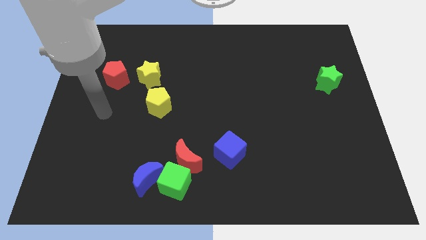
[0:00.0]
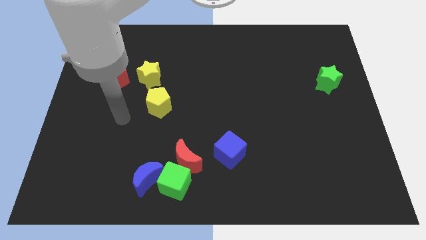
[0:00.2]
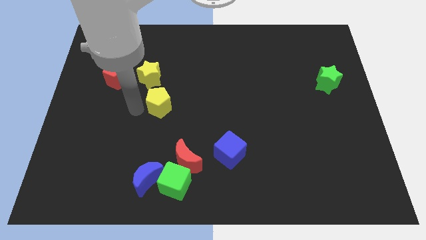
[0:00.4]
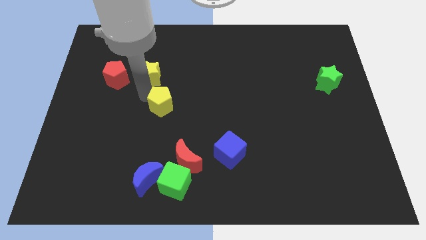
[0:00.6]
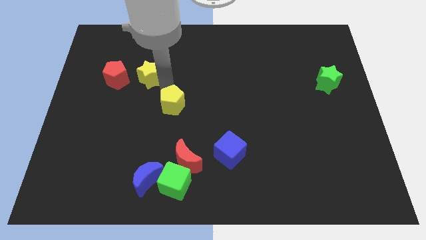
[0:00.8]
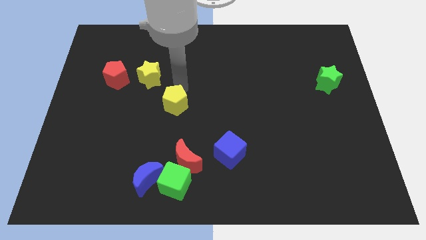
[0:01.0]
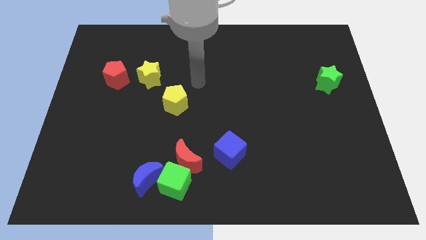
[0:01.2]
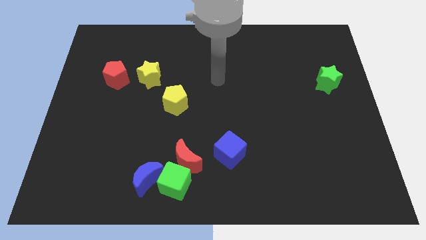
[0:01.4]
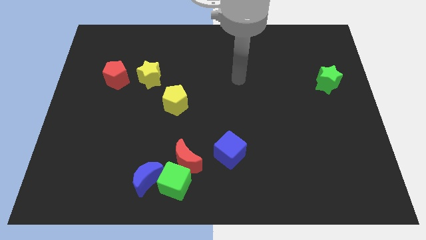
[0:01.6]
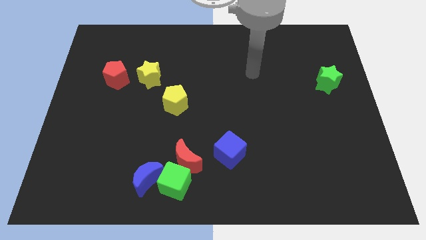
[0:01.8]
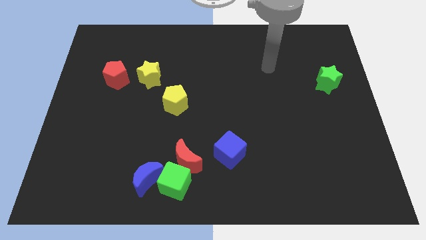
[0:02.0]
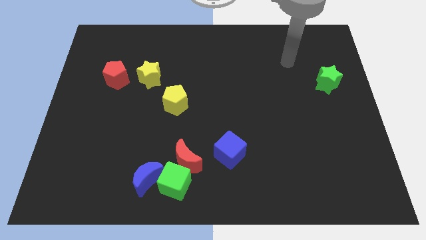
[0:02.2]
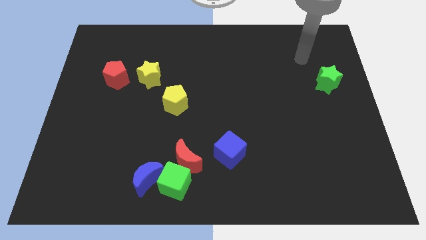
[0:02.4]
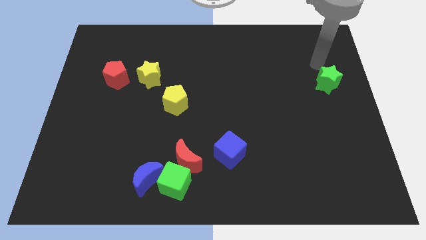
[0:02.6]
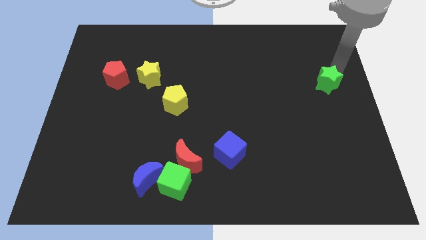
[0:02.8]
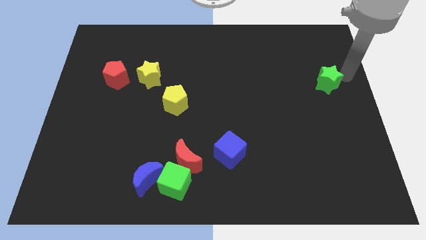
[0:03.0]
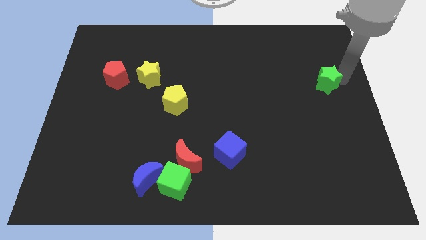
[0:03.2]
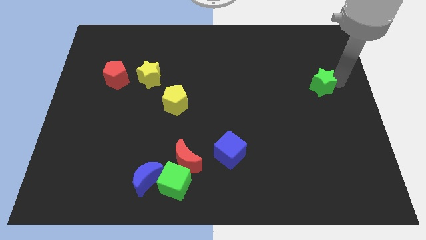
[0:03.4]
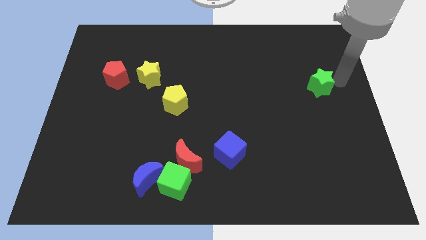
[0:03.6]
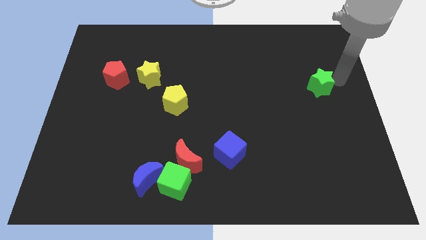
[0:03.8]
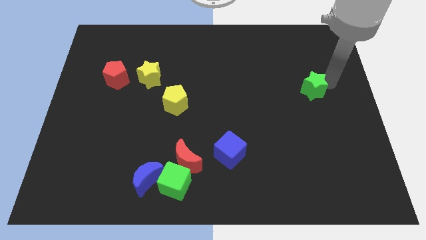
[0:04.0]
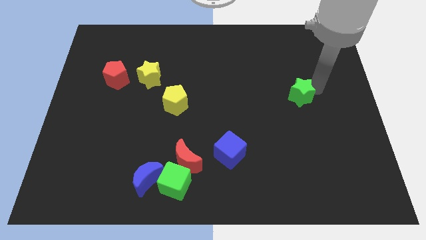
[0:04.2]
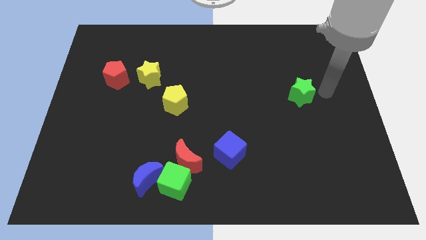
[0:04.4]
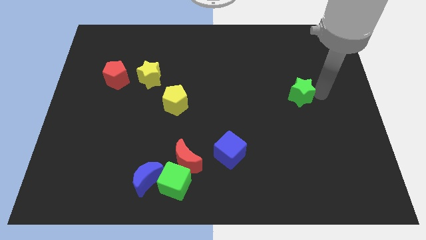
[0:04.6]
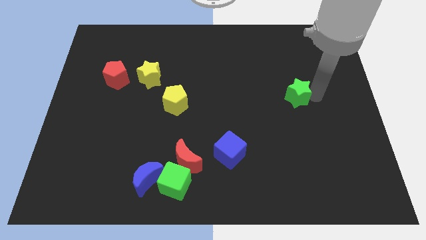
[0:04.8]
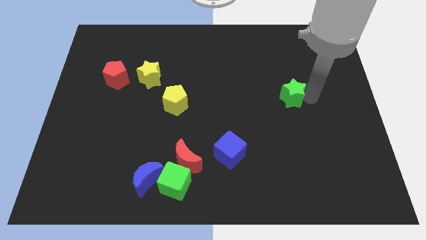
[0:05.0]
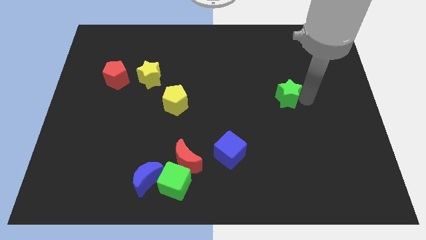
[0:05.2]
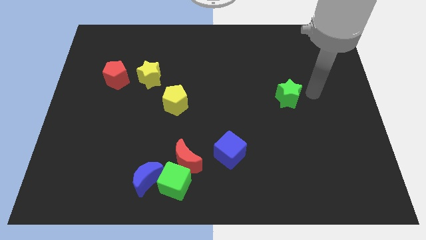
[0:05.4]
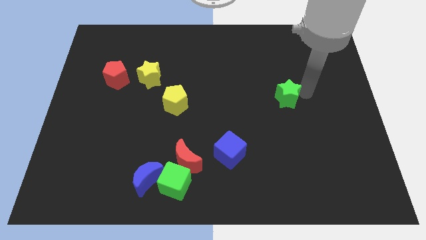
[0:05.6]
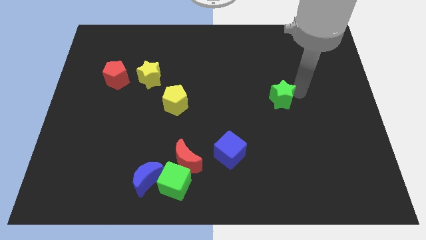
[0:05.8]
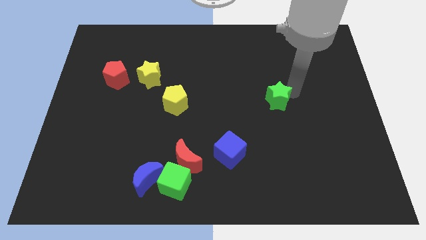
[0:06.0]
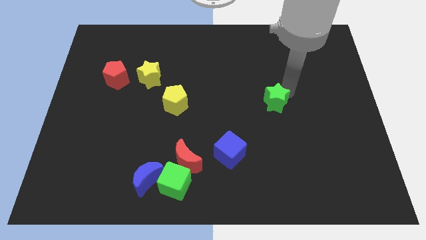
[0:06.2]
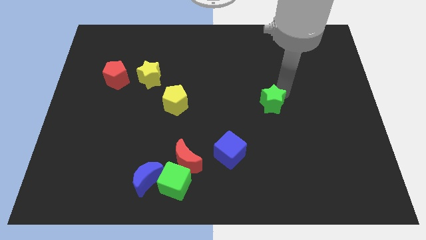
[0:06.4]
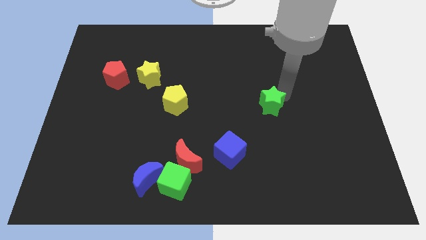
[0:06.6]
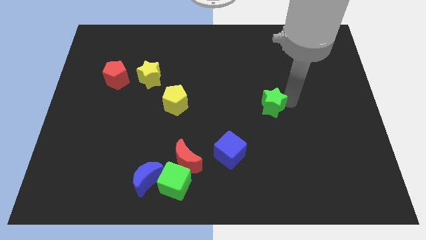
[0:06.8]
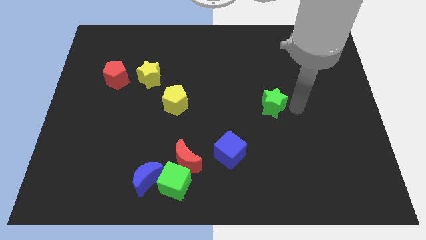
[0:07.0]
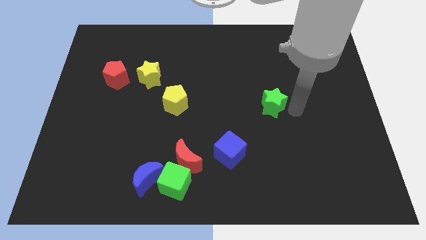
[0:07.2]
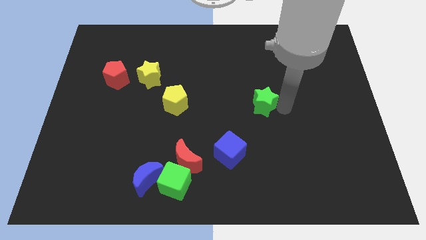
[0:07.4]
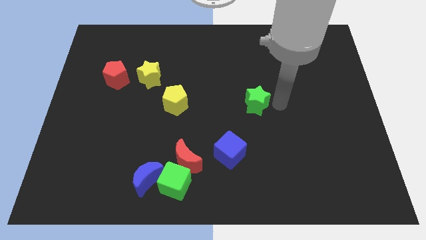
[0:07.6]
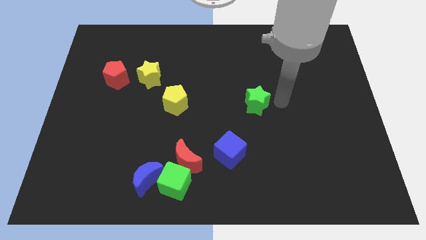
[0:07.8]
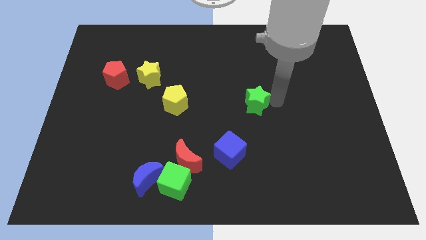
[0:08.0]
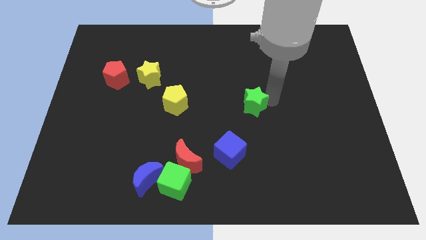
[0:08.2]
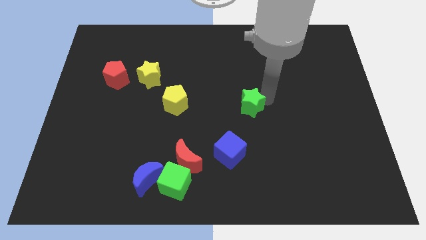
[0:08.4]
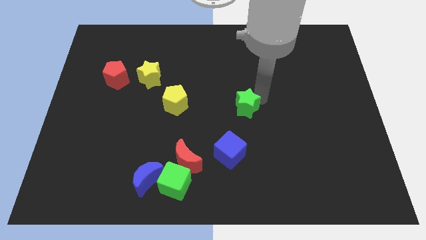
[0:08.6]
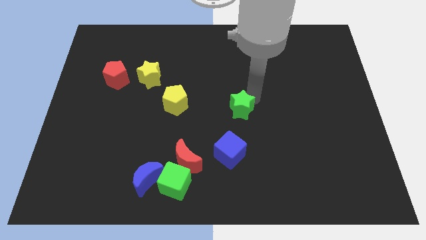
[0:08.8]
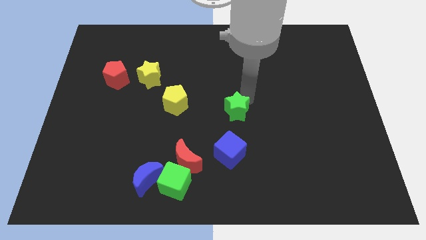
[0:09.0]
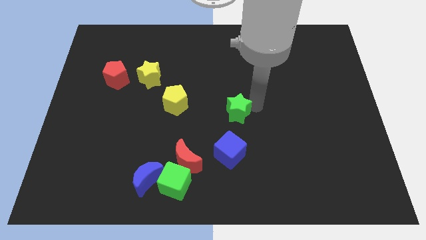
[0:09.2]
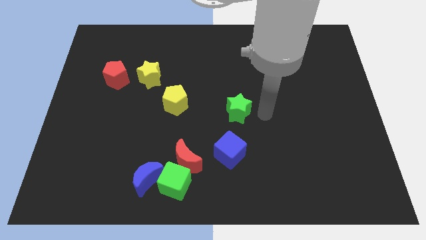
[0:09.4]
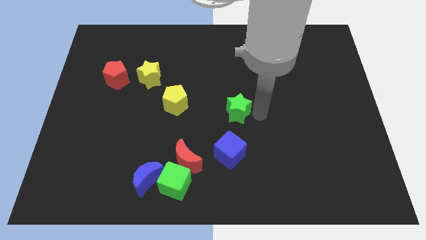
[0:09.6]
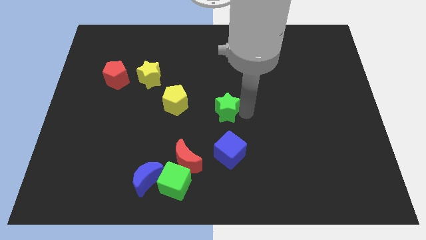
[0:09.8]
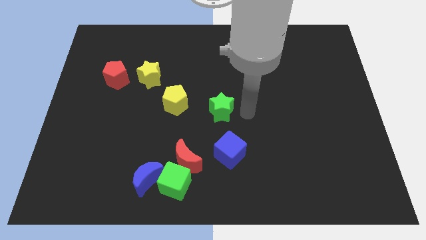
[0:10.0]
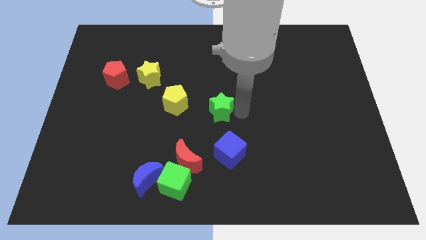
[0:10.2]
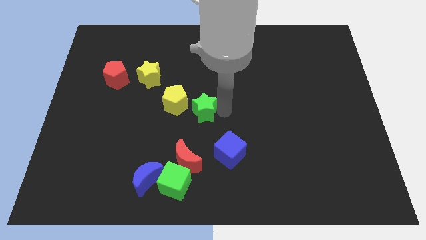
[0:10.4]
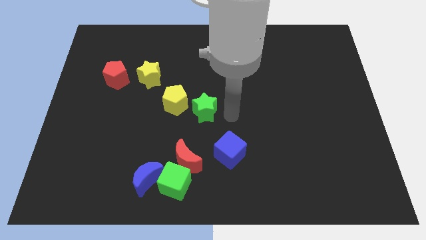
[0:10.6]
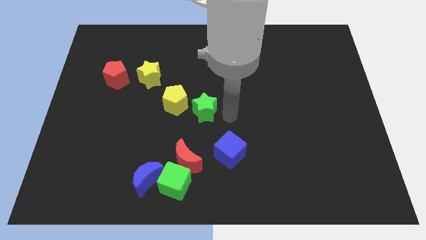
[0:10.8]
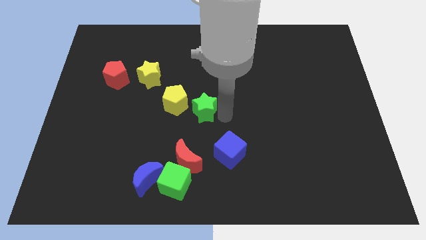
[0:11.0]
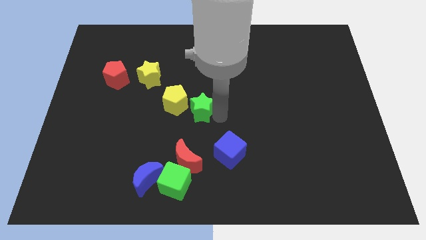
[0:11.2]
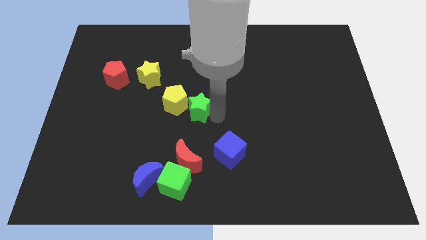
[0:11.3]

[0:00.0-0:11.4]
push the green star close to the yellow pentagon

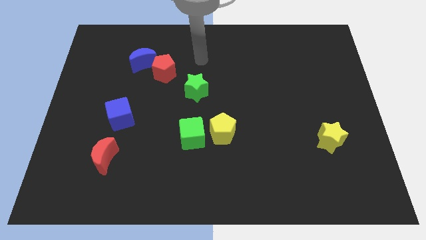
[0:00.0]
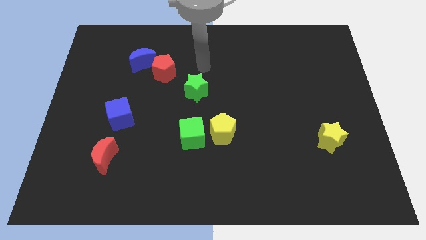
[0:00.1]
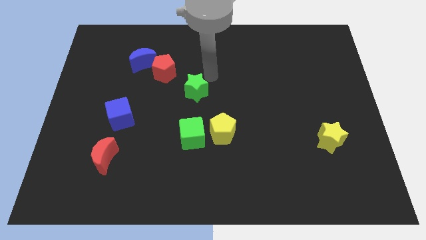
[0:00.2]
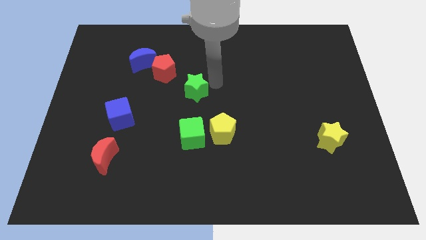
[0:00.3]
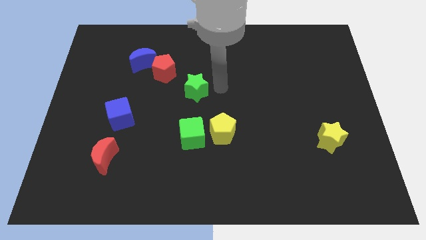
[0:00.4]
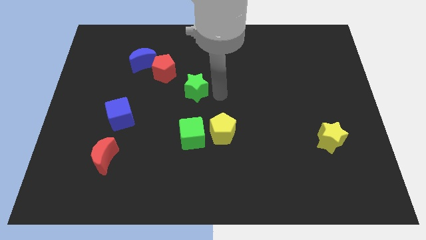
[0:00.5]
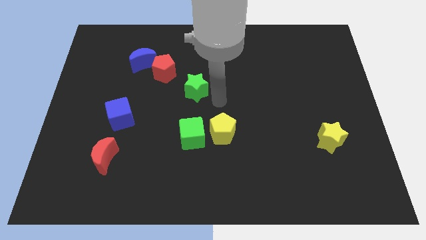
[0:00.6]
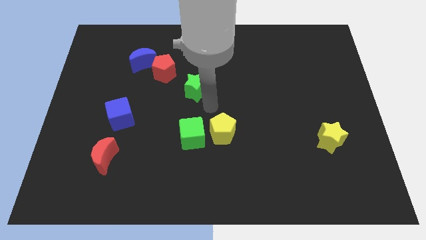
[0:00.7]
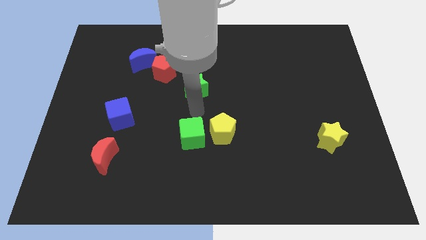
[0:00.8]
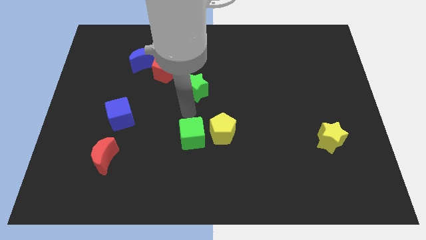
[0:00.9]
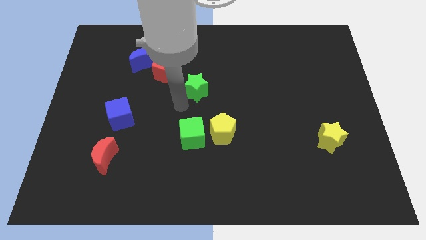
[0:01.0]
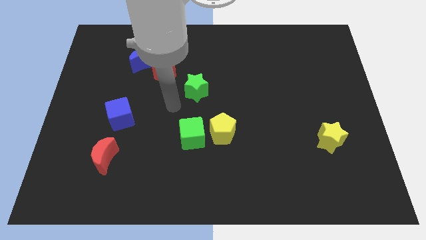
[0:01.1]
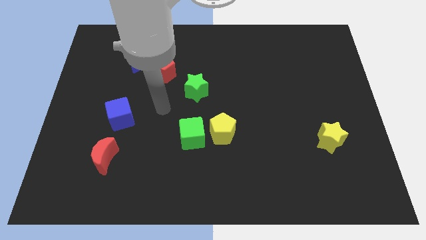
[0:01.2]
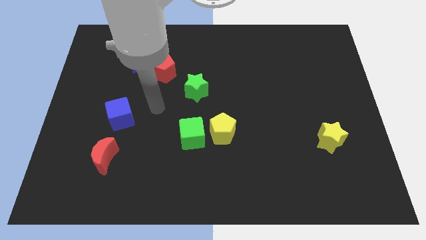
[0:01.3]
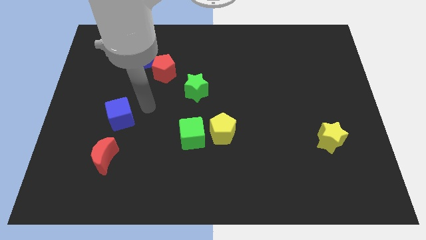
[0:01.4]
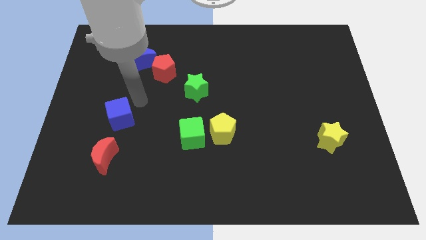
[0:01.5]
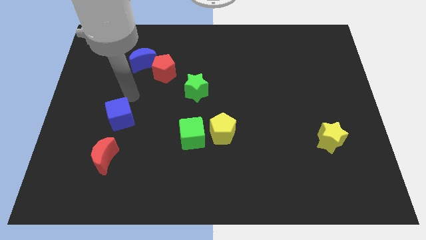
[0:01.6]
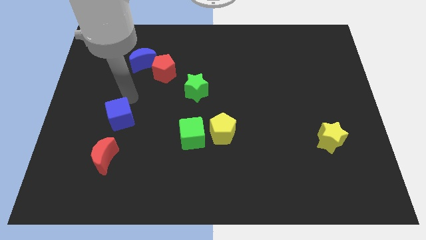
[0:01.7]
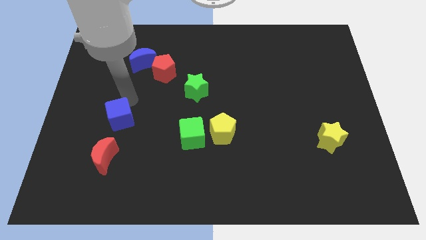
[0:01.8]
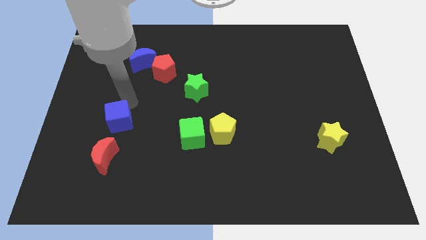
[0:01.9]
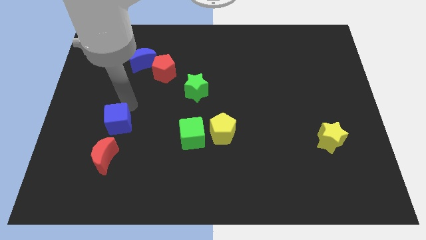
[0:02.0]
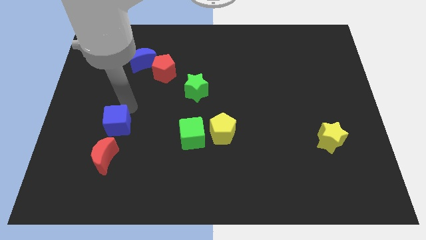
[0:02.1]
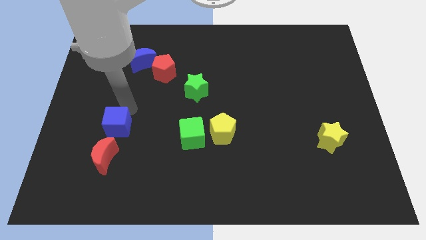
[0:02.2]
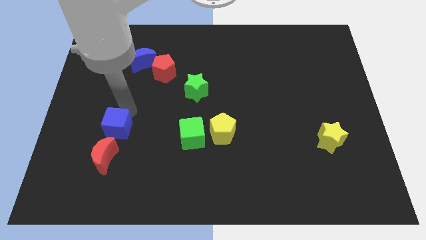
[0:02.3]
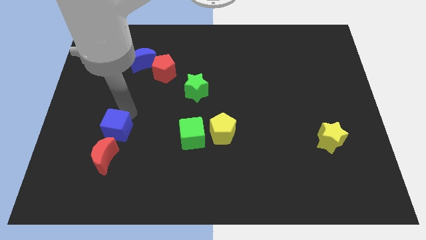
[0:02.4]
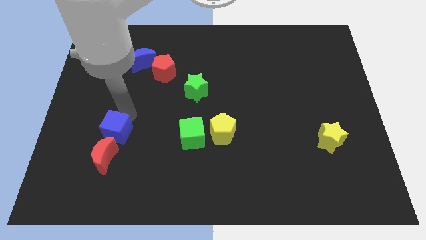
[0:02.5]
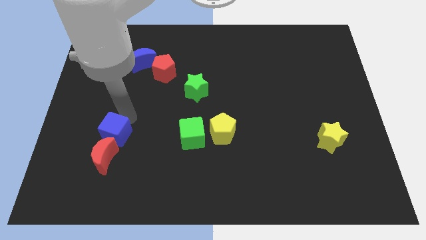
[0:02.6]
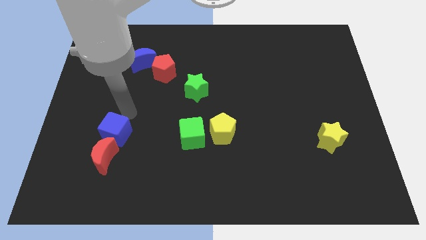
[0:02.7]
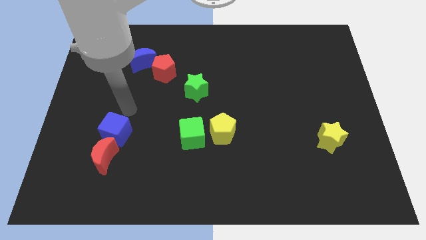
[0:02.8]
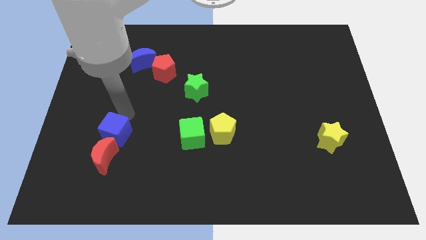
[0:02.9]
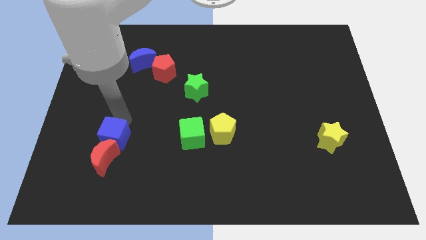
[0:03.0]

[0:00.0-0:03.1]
put the blue cube towards the red moon
